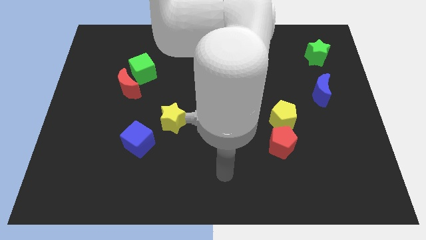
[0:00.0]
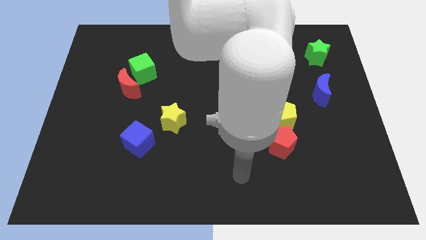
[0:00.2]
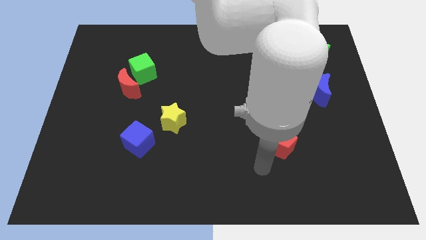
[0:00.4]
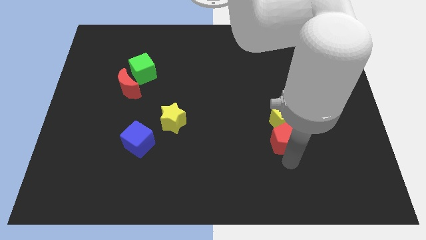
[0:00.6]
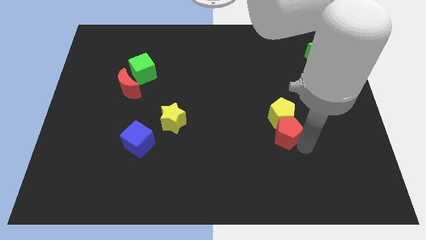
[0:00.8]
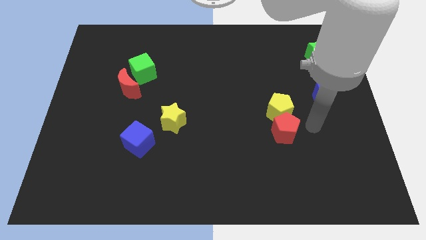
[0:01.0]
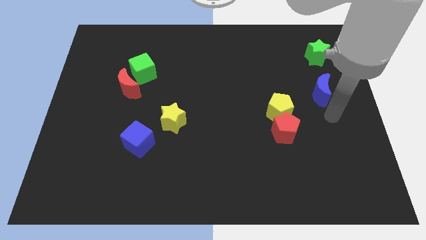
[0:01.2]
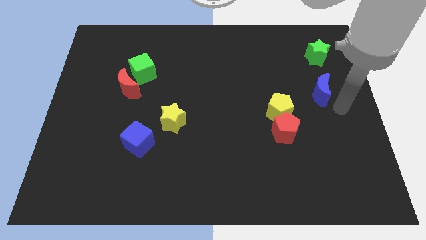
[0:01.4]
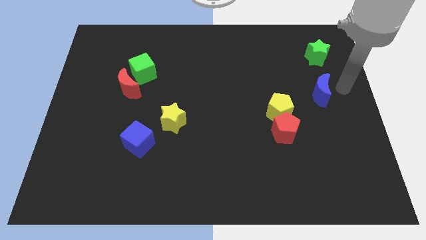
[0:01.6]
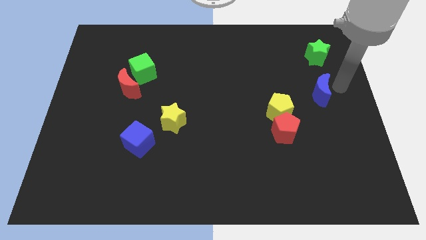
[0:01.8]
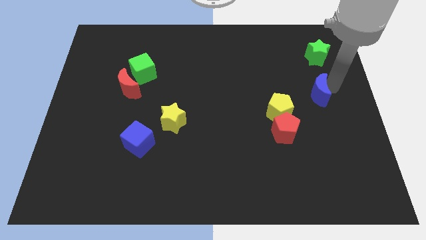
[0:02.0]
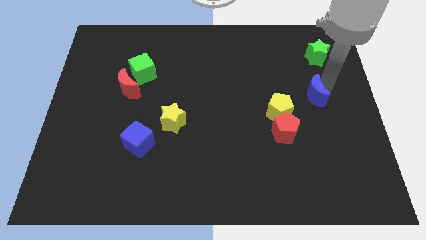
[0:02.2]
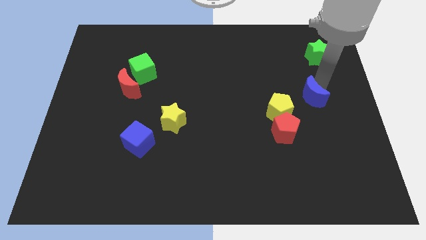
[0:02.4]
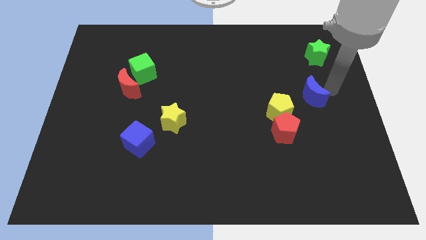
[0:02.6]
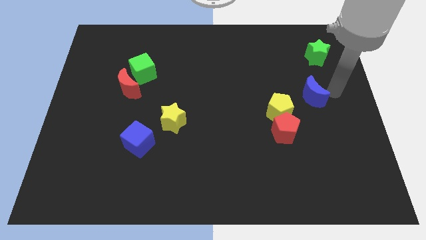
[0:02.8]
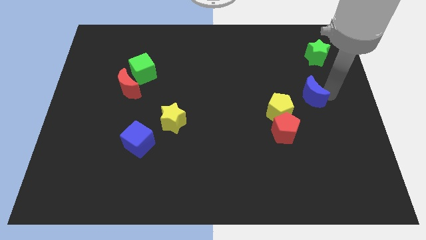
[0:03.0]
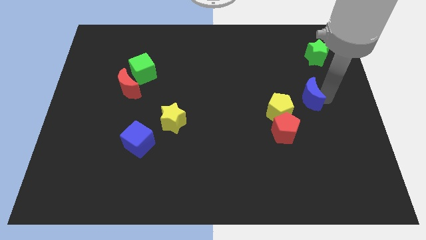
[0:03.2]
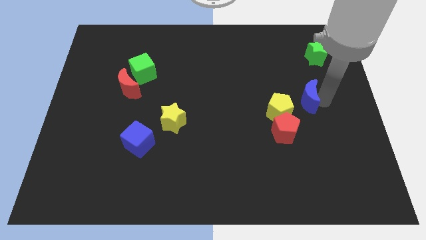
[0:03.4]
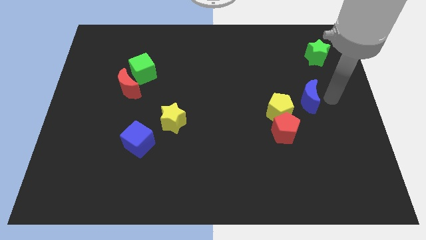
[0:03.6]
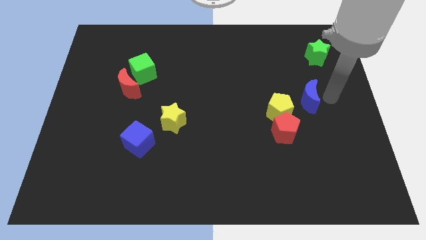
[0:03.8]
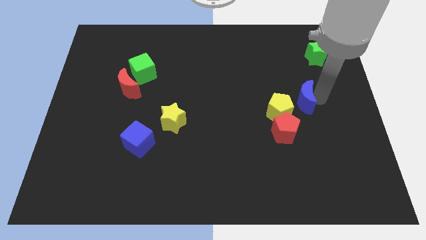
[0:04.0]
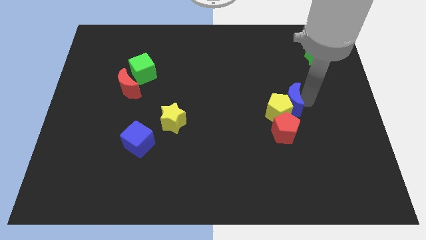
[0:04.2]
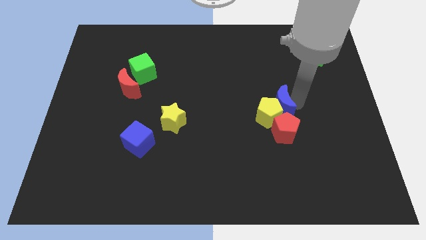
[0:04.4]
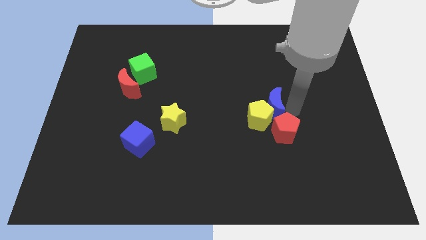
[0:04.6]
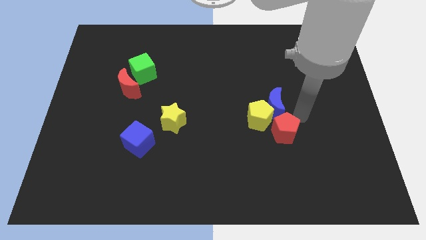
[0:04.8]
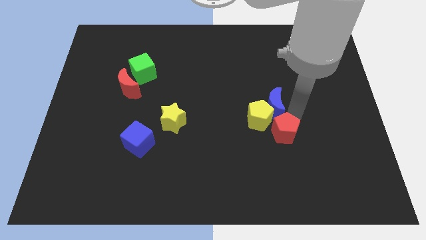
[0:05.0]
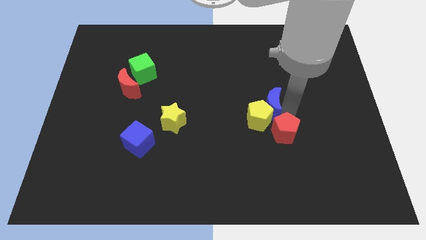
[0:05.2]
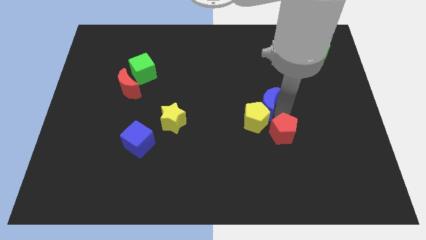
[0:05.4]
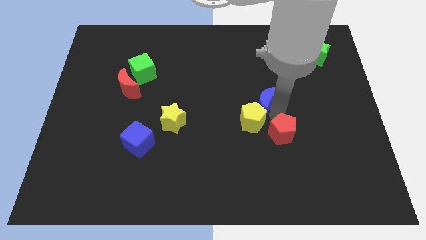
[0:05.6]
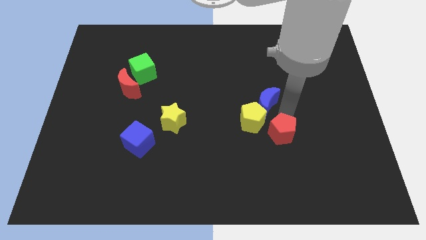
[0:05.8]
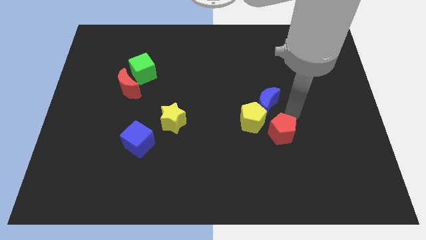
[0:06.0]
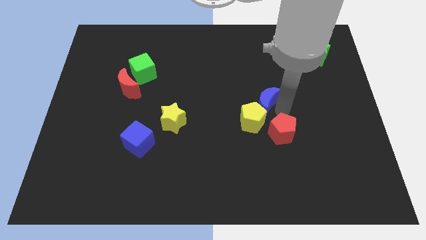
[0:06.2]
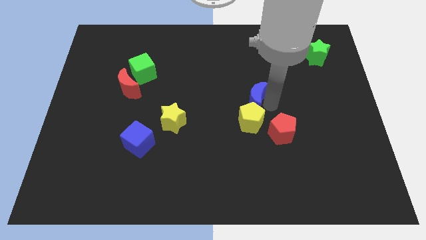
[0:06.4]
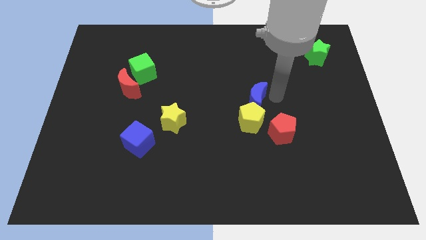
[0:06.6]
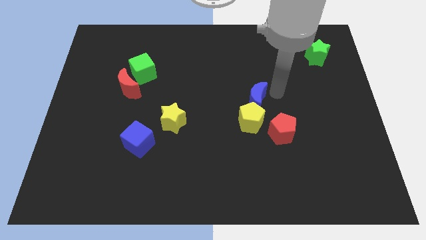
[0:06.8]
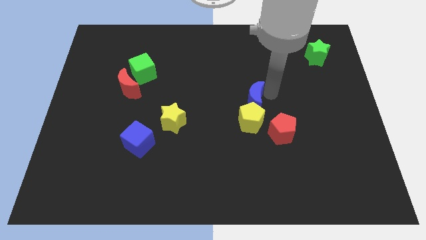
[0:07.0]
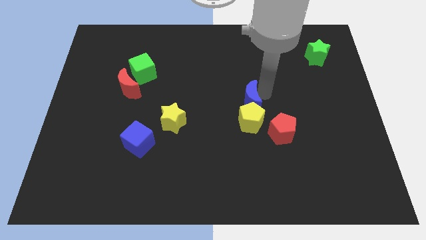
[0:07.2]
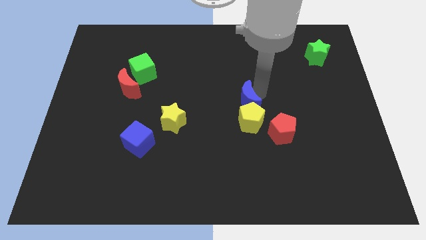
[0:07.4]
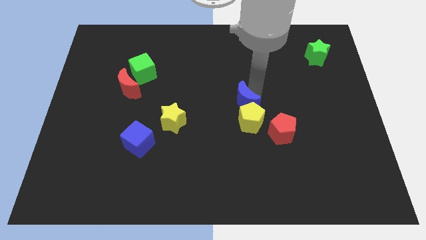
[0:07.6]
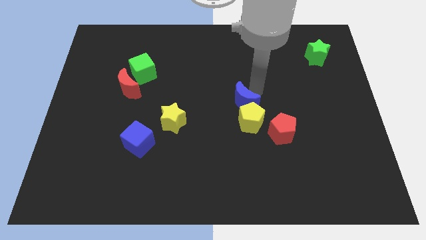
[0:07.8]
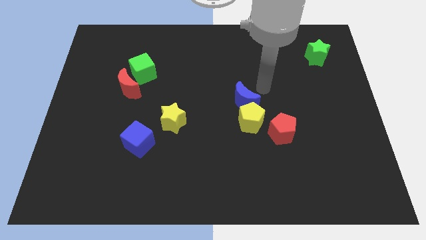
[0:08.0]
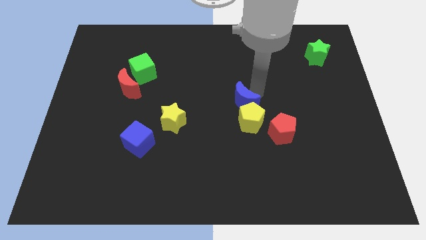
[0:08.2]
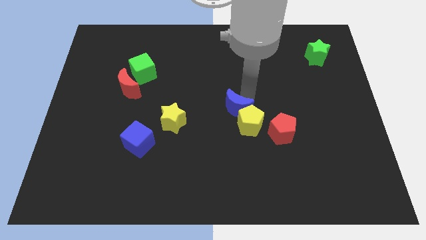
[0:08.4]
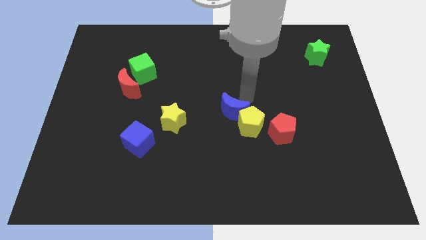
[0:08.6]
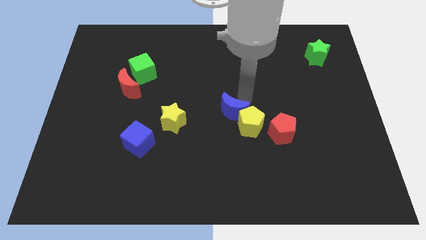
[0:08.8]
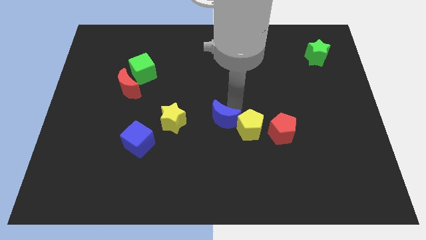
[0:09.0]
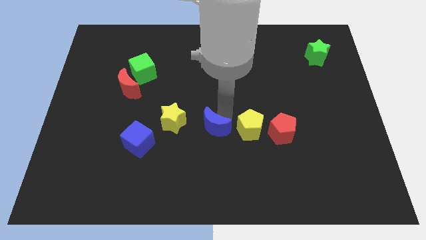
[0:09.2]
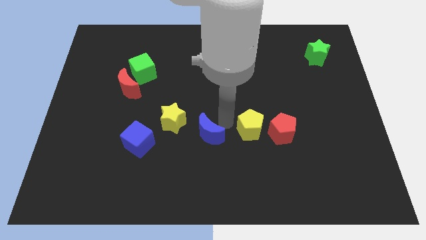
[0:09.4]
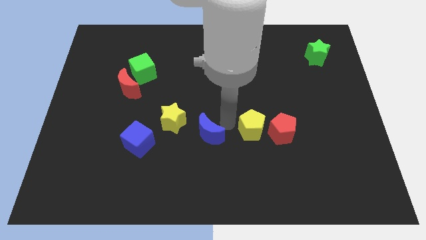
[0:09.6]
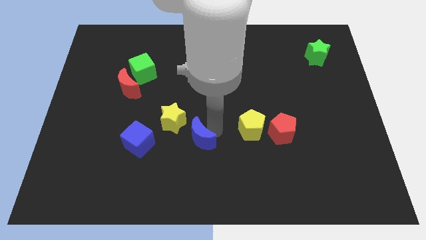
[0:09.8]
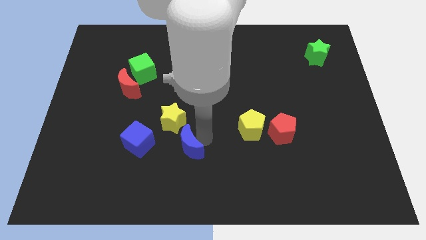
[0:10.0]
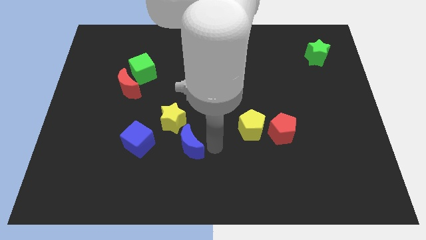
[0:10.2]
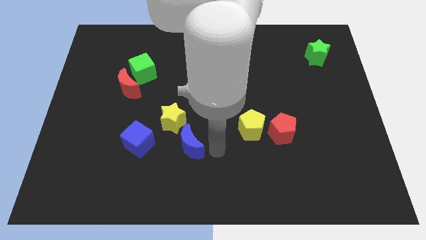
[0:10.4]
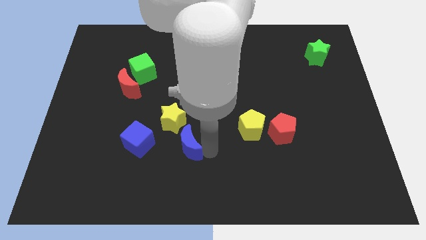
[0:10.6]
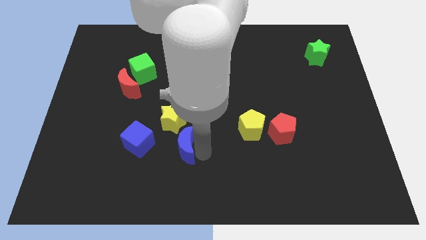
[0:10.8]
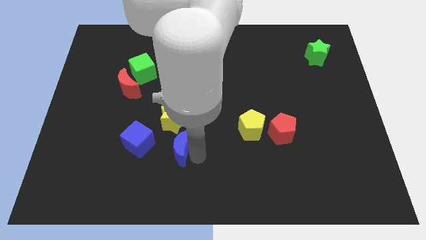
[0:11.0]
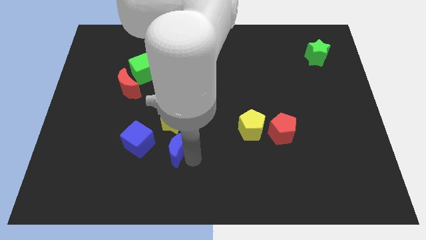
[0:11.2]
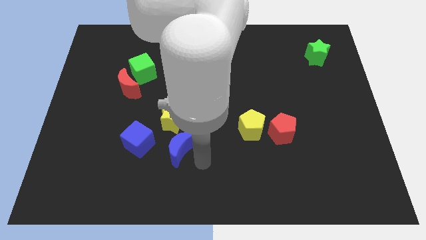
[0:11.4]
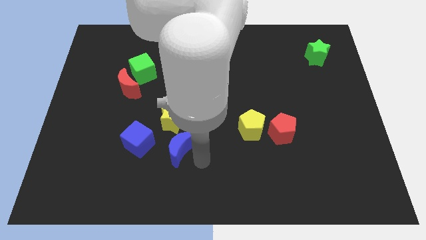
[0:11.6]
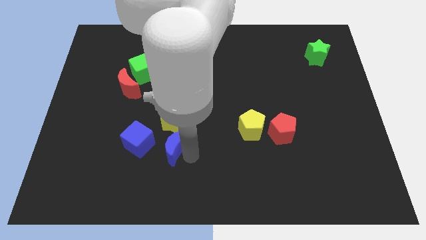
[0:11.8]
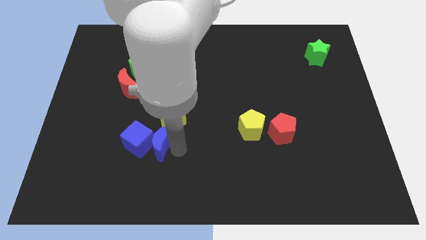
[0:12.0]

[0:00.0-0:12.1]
move the blue moon towards the blue cube

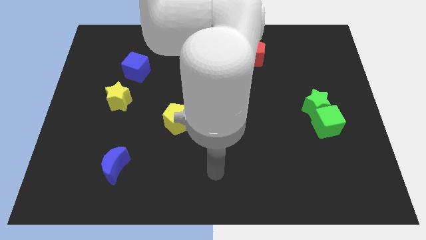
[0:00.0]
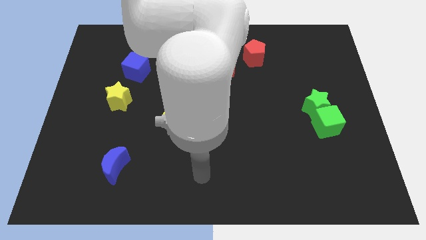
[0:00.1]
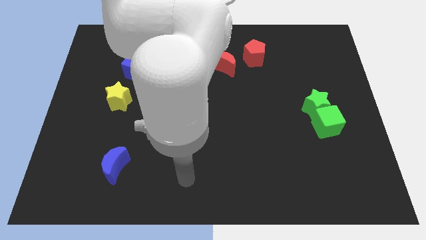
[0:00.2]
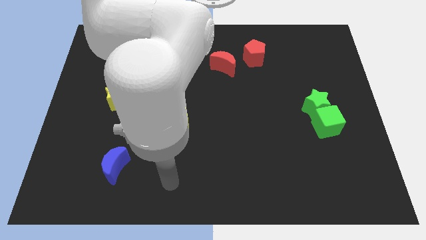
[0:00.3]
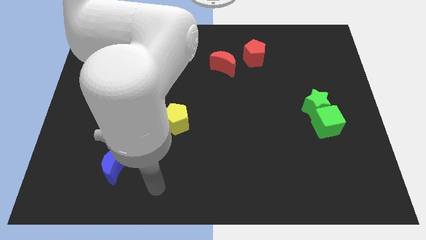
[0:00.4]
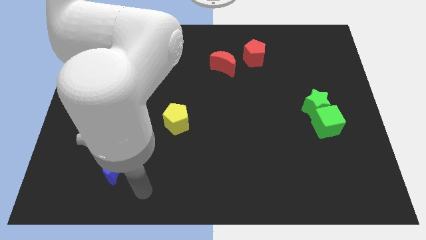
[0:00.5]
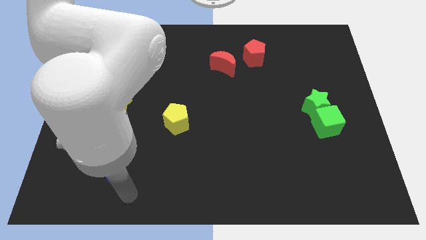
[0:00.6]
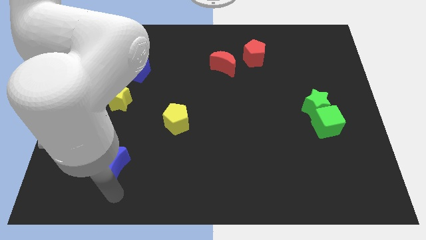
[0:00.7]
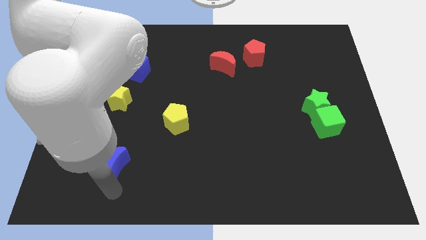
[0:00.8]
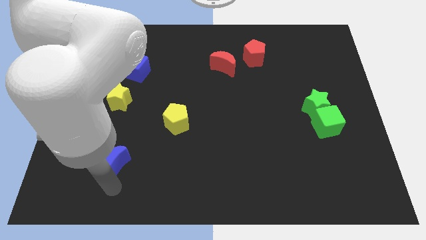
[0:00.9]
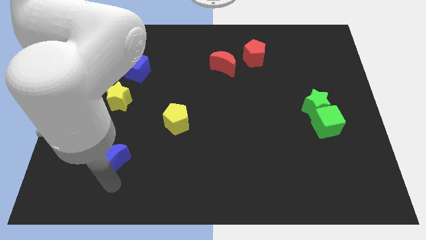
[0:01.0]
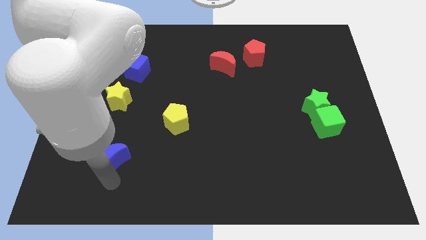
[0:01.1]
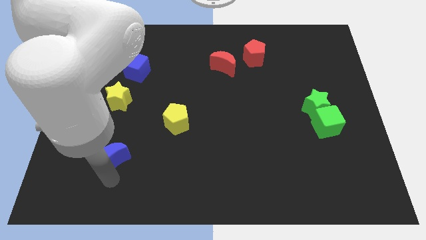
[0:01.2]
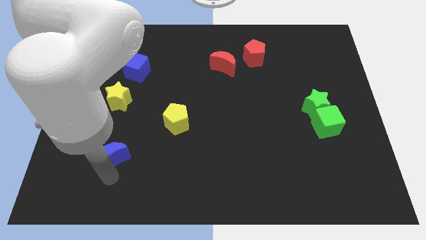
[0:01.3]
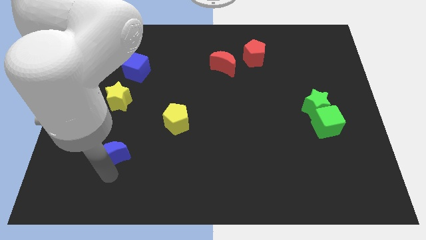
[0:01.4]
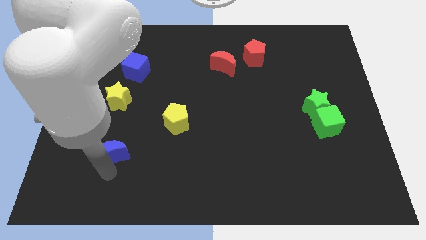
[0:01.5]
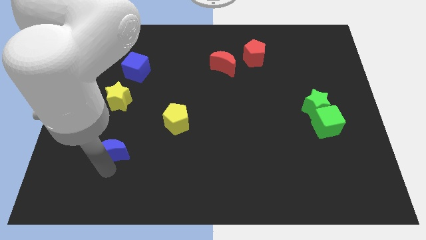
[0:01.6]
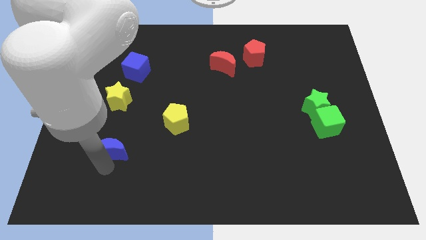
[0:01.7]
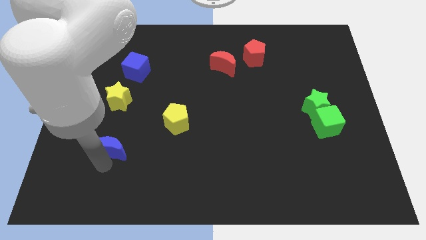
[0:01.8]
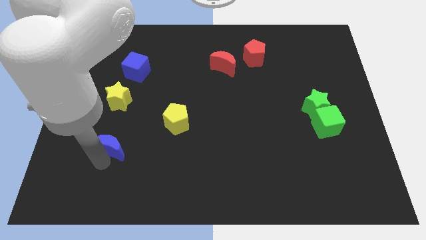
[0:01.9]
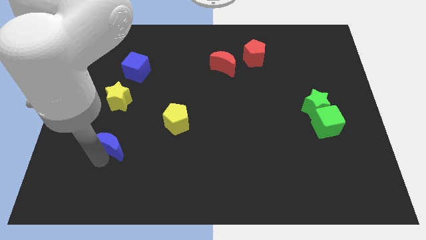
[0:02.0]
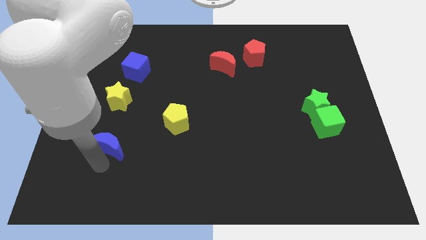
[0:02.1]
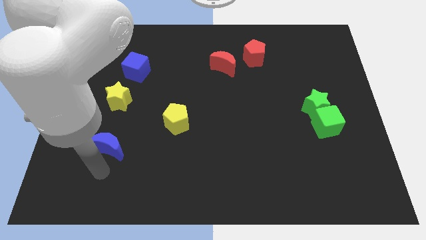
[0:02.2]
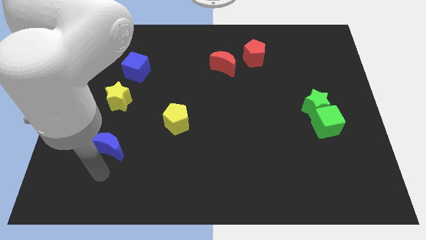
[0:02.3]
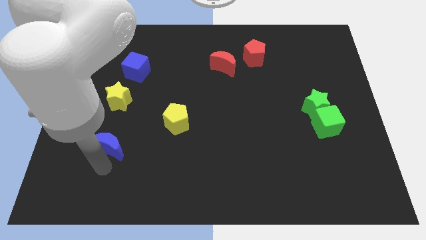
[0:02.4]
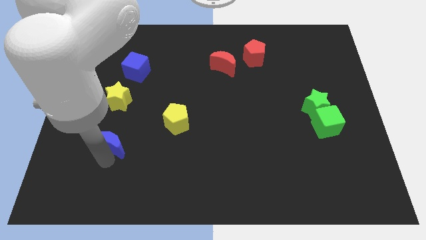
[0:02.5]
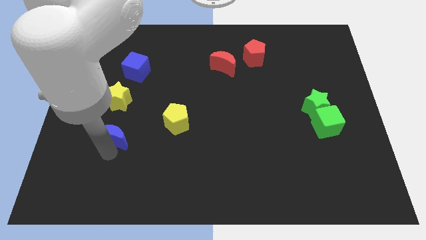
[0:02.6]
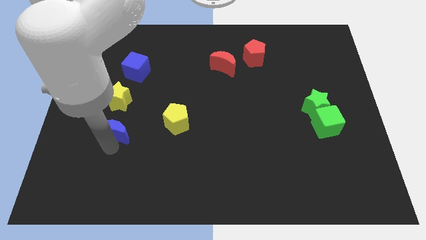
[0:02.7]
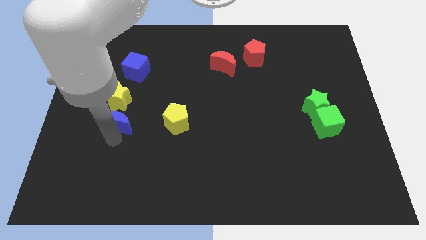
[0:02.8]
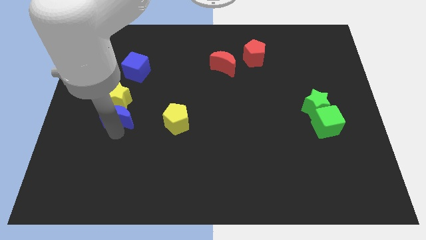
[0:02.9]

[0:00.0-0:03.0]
move the blue moon next to the yellow star
